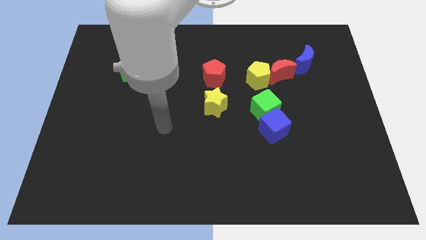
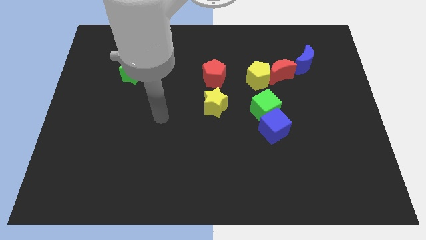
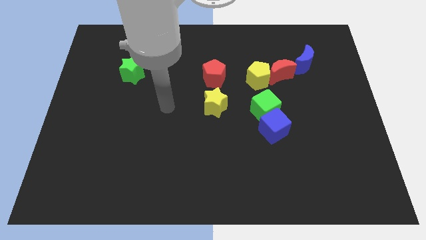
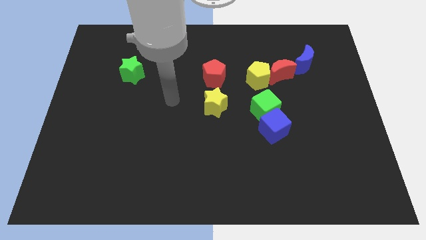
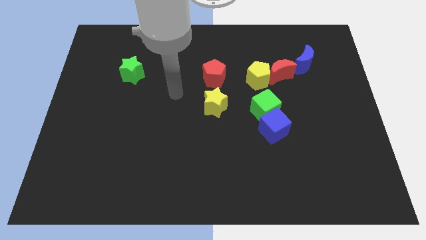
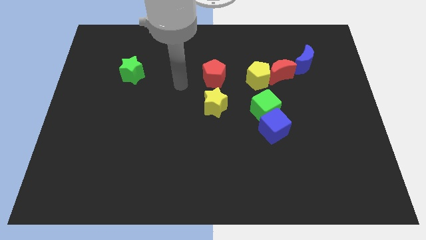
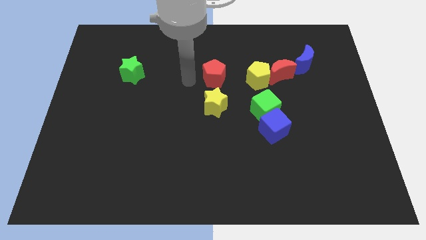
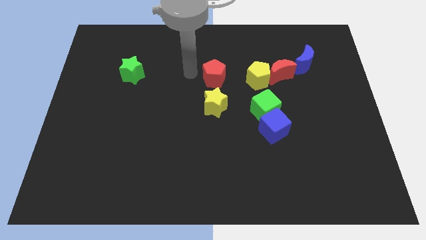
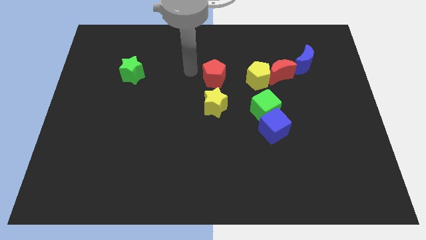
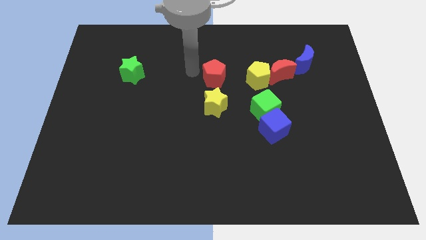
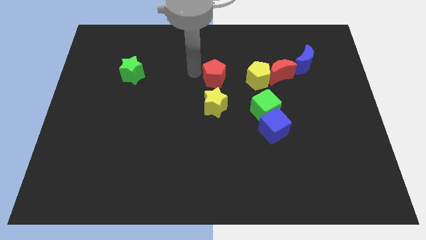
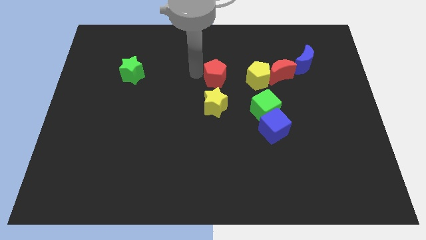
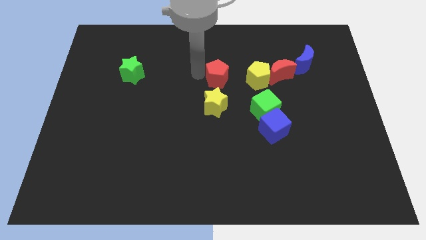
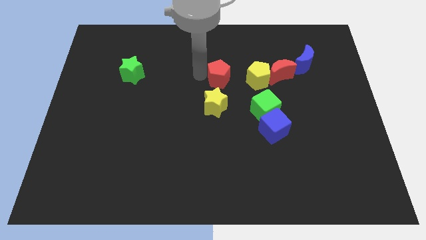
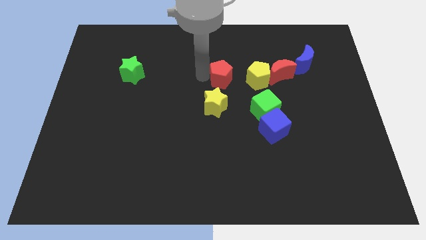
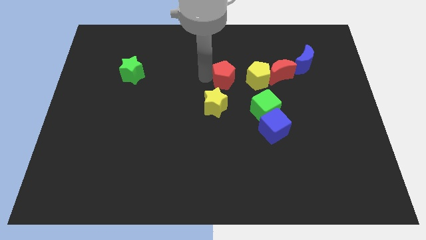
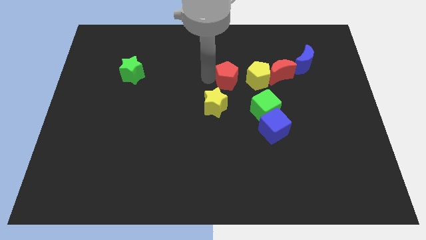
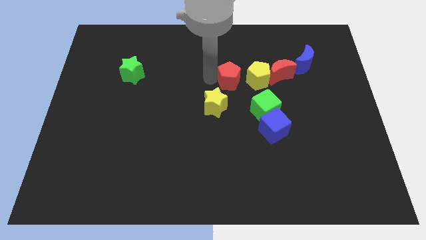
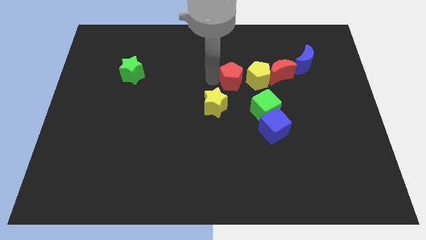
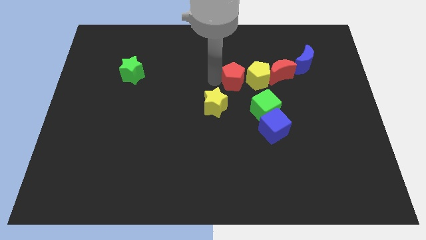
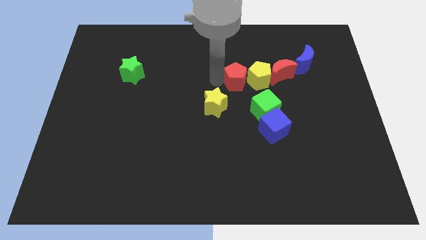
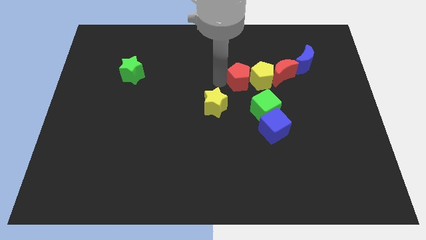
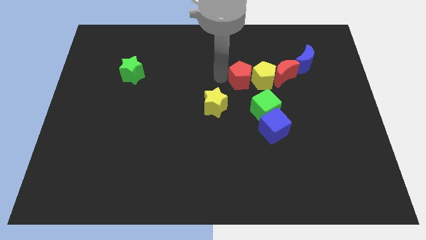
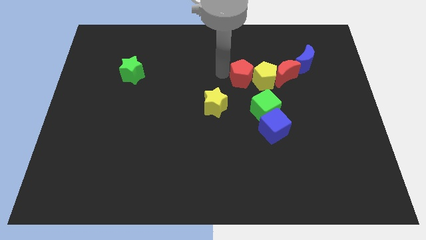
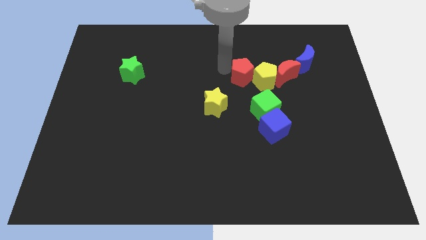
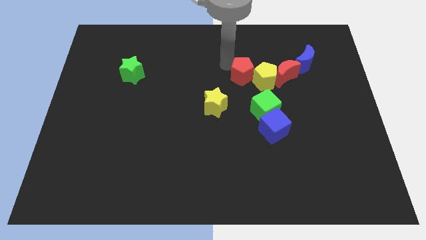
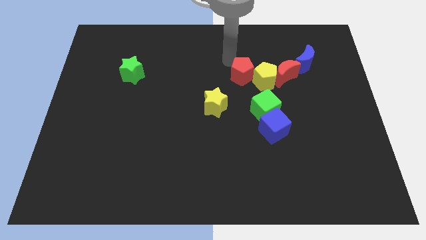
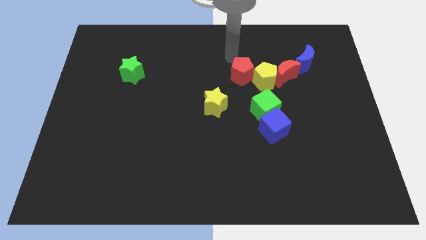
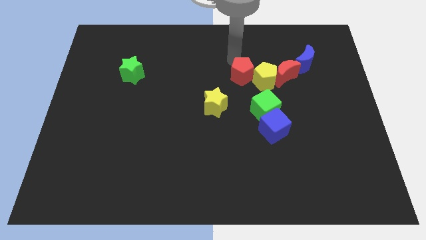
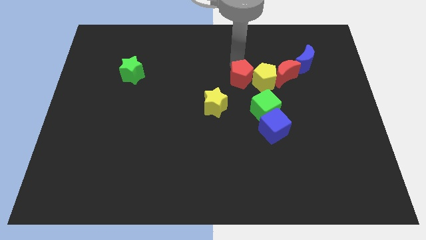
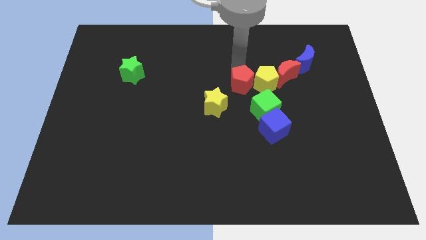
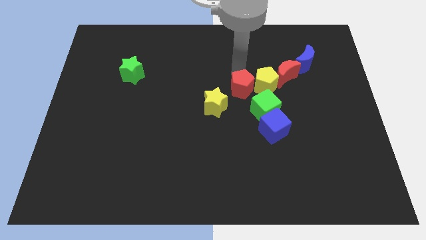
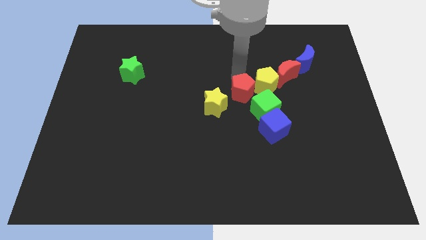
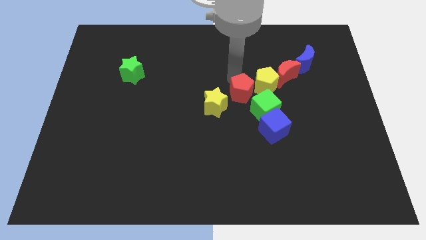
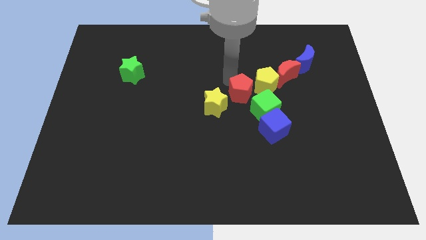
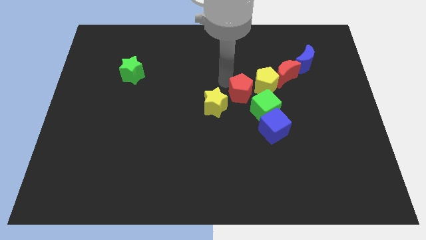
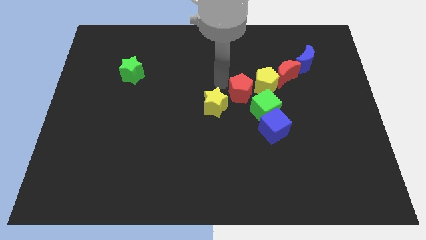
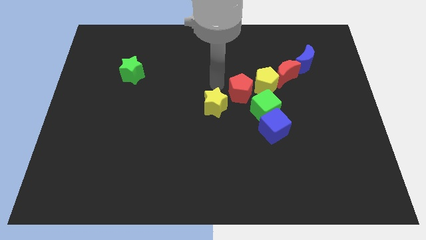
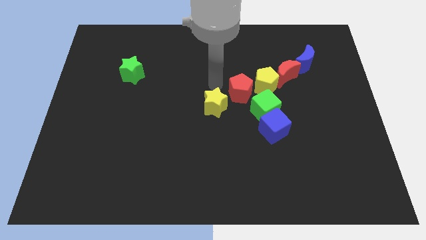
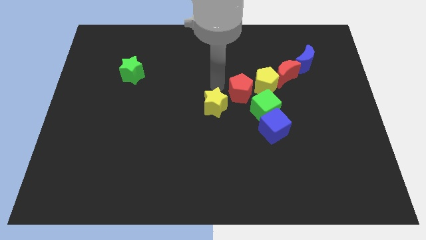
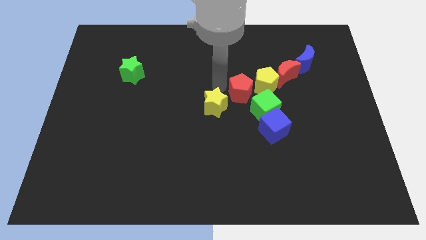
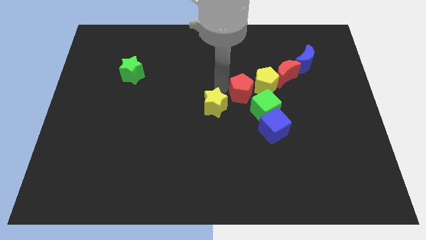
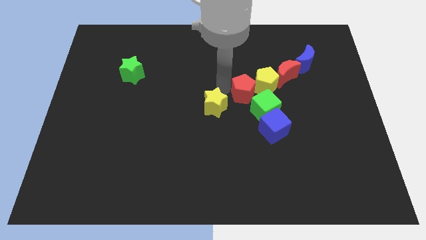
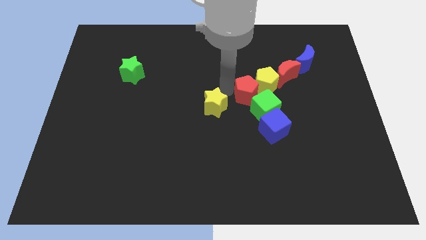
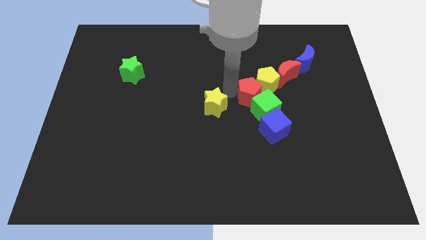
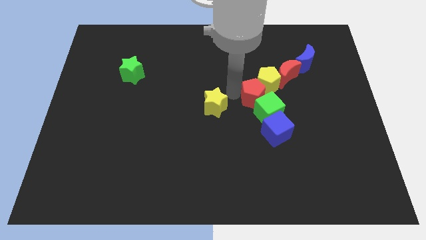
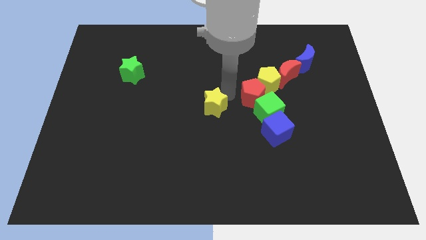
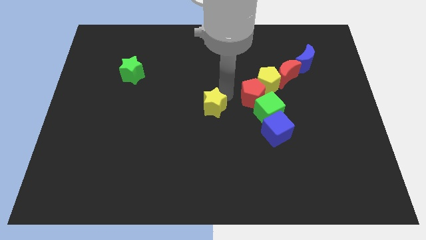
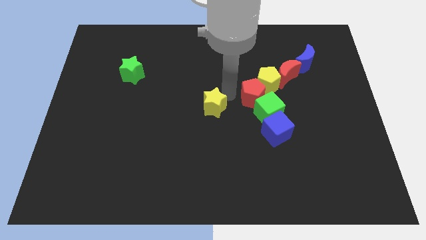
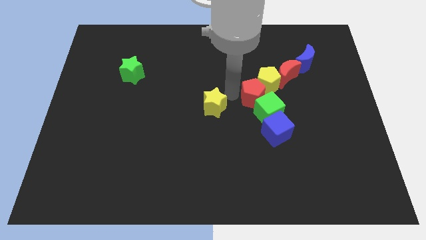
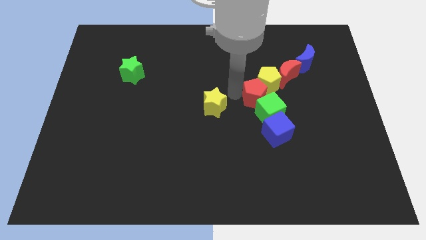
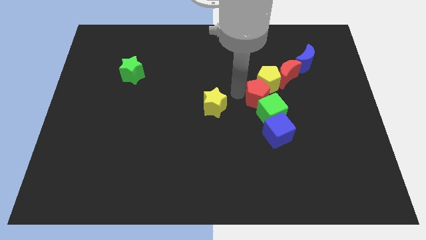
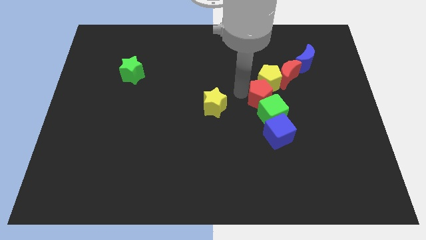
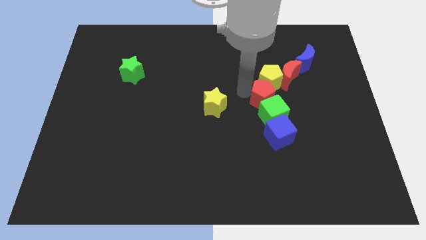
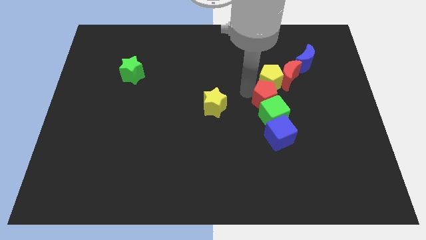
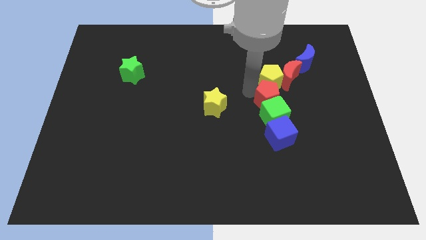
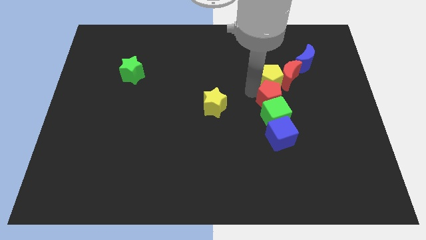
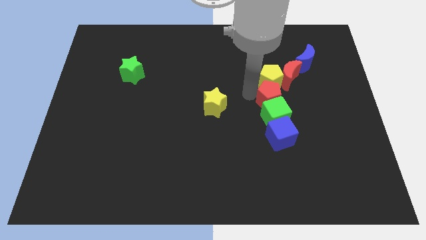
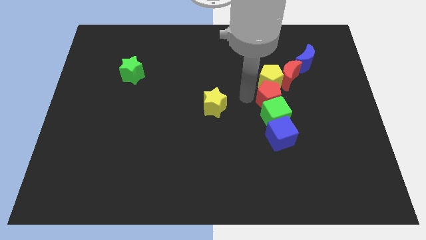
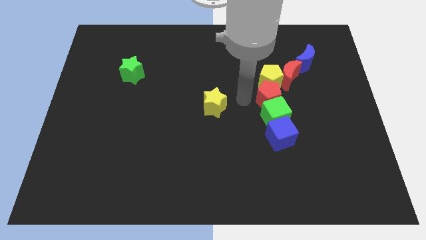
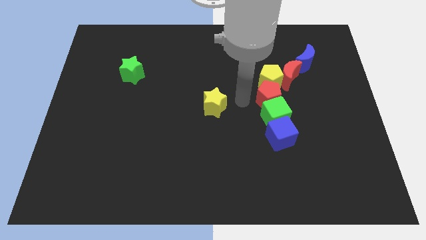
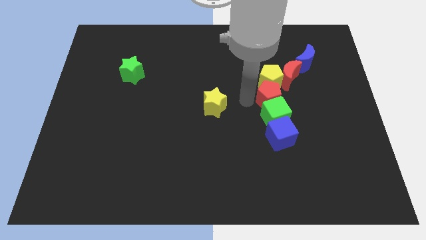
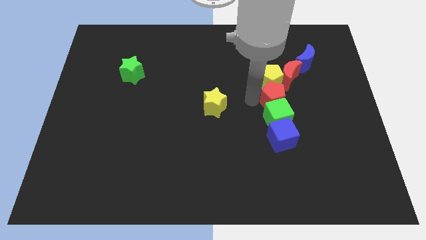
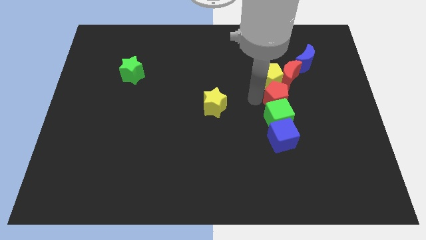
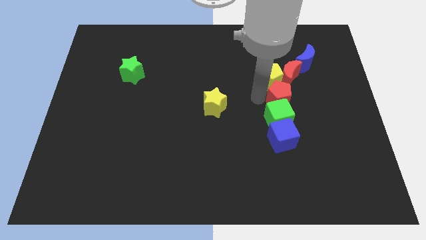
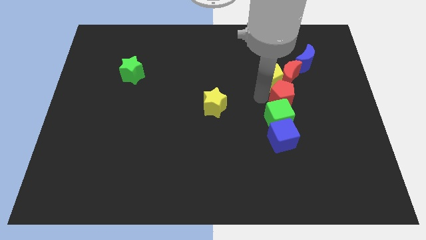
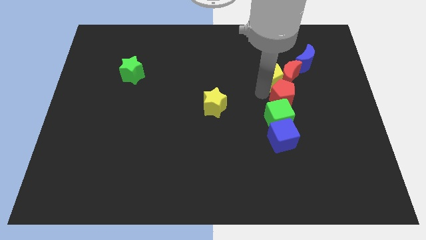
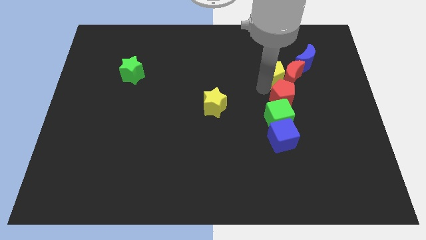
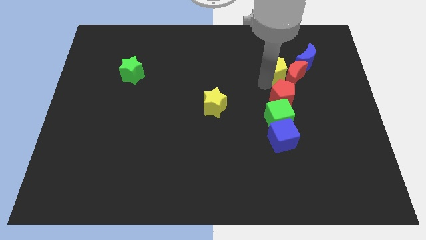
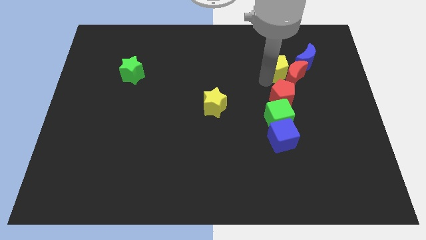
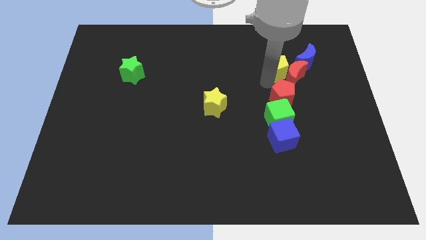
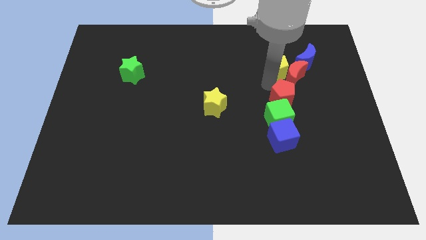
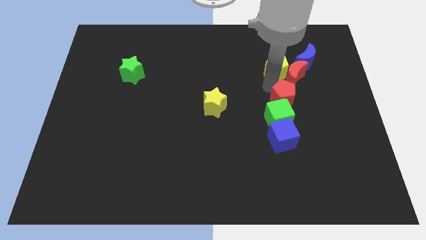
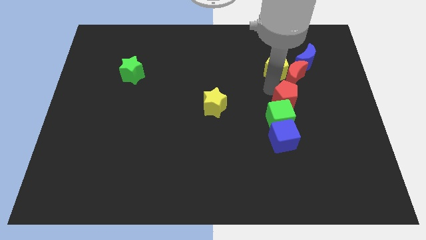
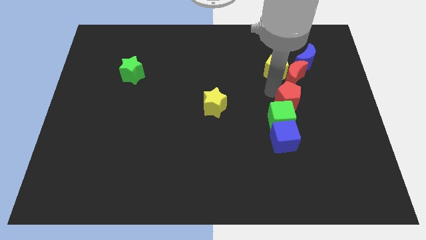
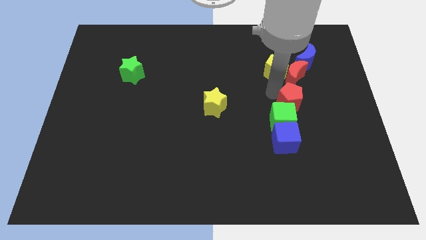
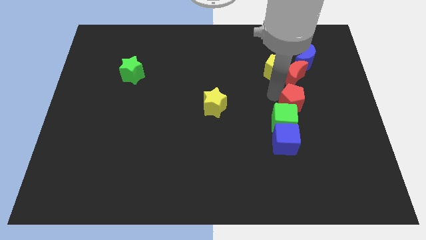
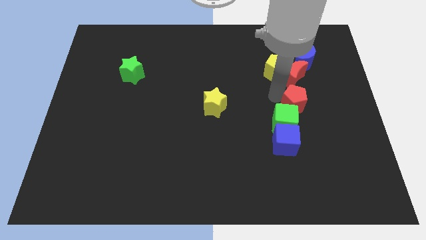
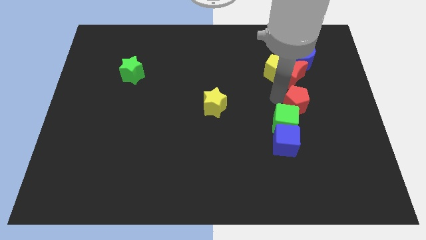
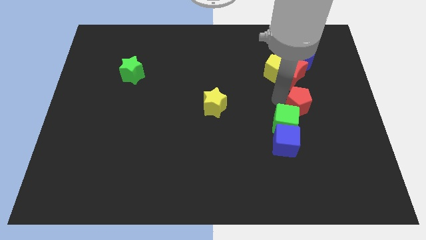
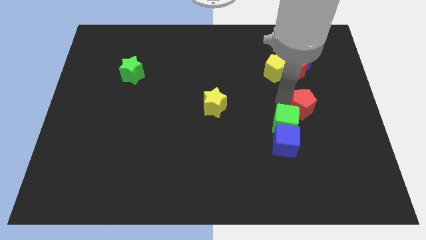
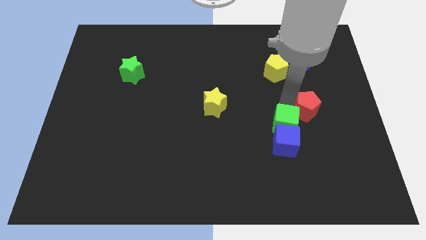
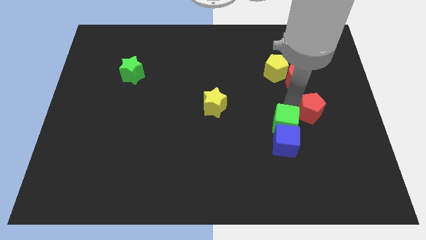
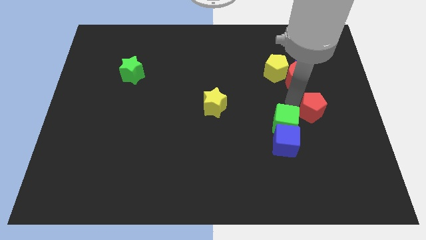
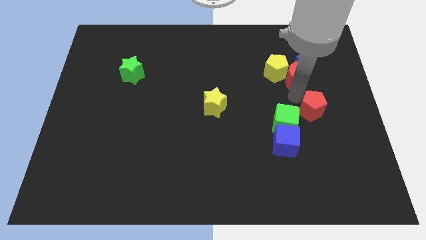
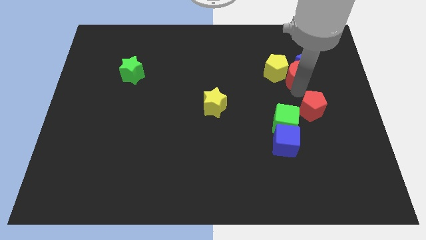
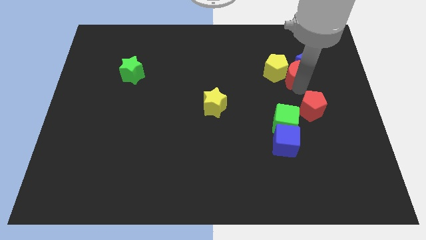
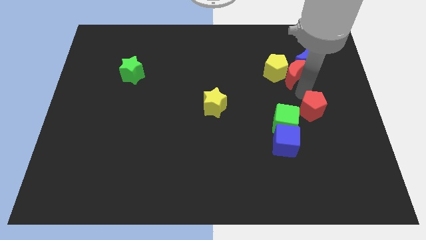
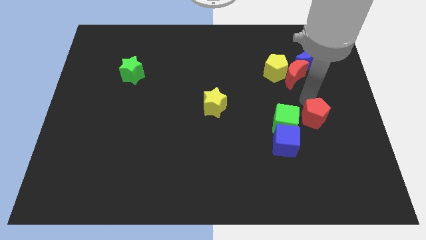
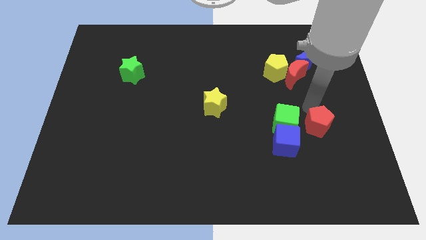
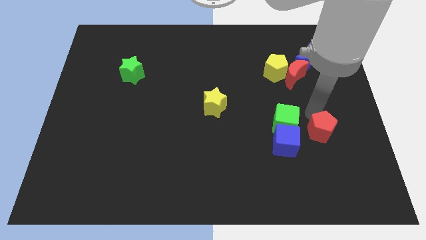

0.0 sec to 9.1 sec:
slide the red pentagon to the right side of the blue cube
